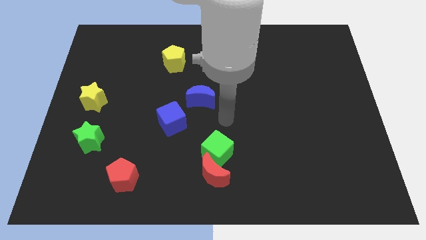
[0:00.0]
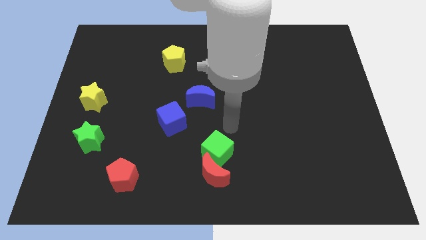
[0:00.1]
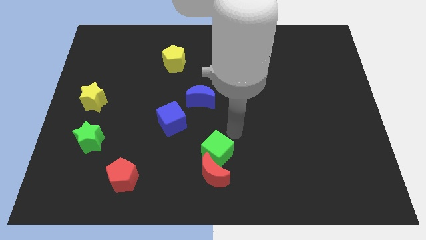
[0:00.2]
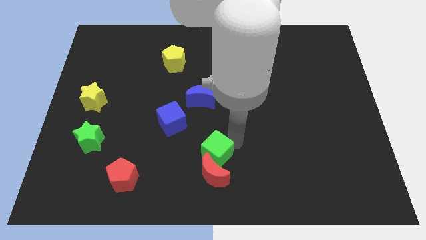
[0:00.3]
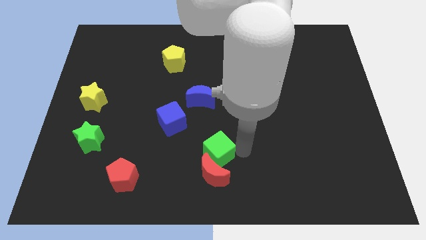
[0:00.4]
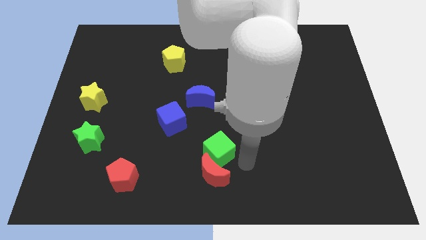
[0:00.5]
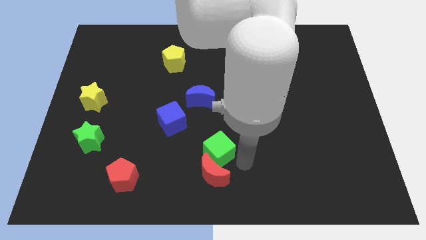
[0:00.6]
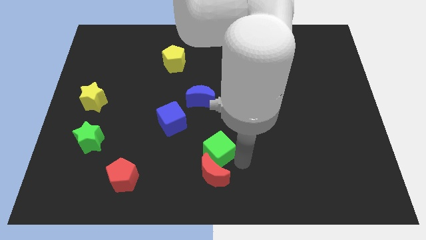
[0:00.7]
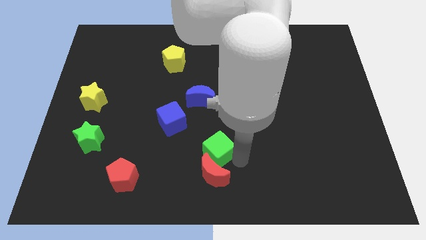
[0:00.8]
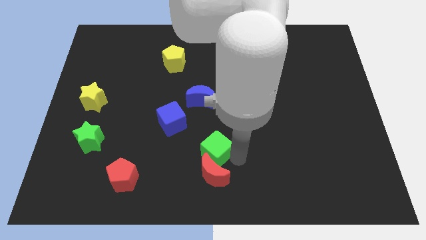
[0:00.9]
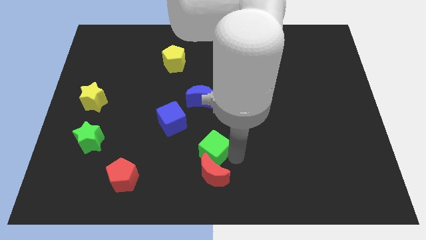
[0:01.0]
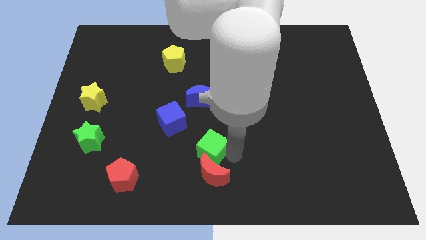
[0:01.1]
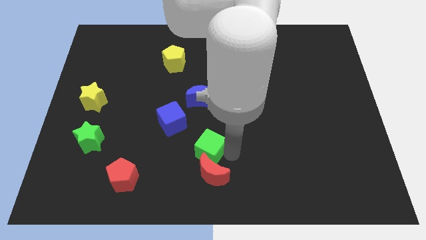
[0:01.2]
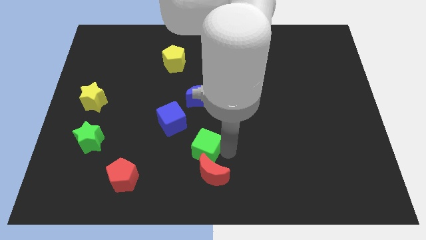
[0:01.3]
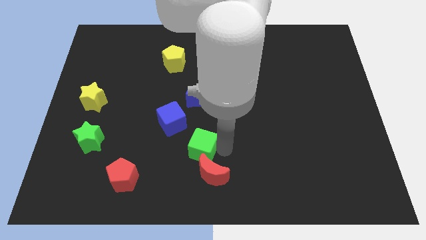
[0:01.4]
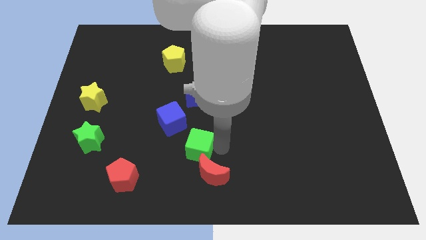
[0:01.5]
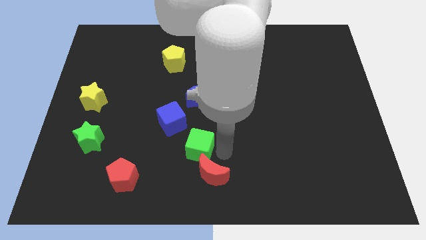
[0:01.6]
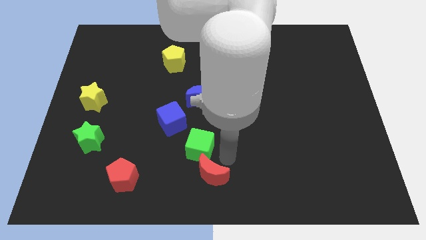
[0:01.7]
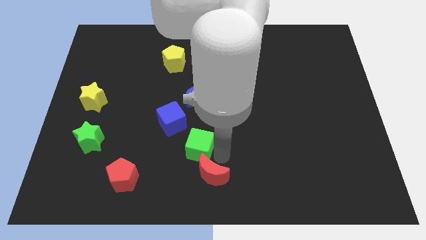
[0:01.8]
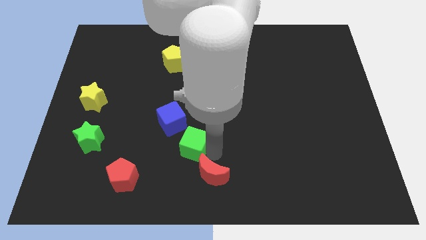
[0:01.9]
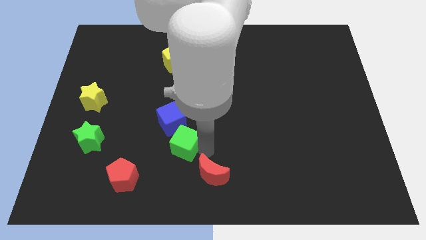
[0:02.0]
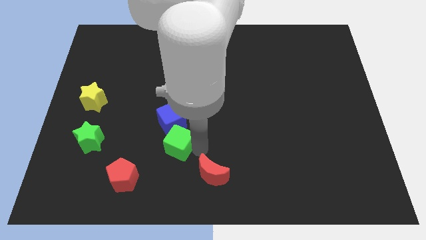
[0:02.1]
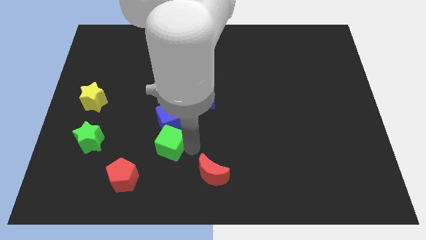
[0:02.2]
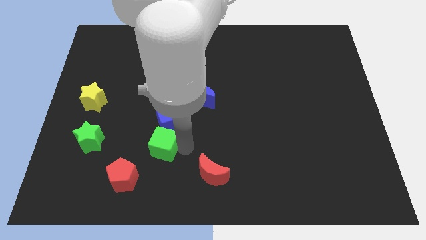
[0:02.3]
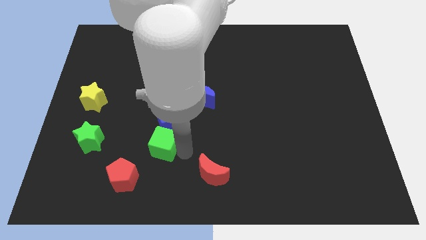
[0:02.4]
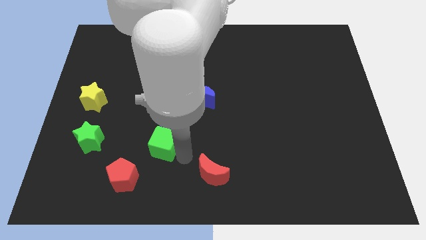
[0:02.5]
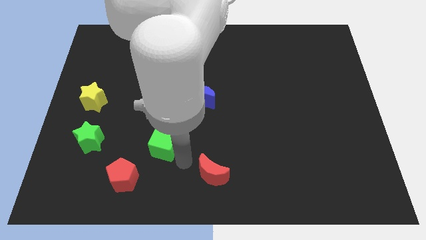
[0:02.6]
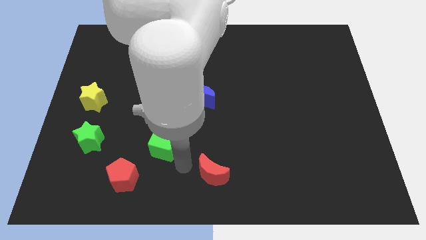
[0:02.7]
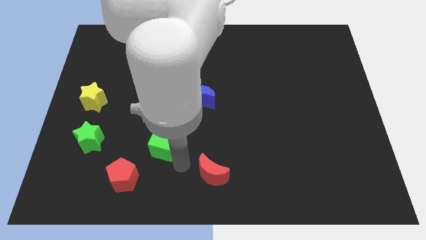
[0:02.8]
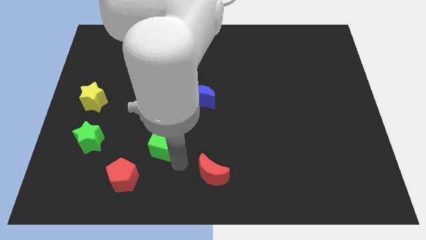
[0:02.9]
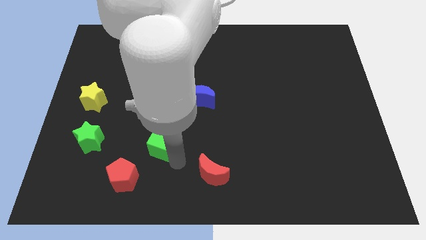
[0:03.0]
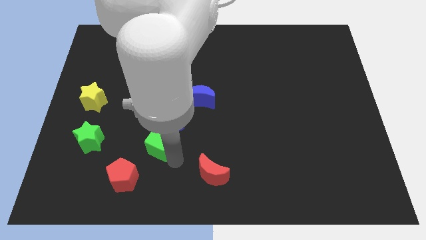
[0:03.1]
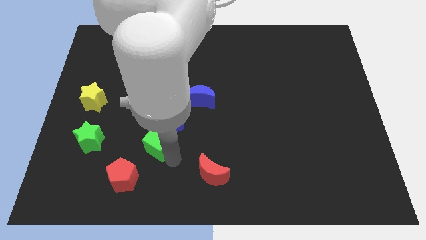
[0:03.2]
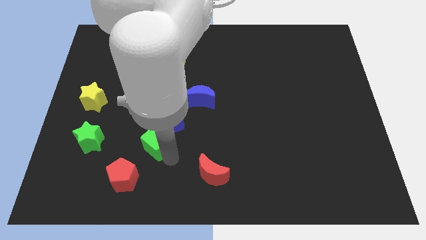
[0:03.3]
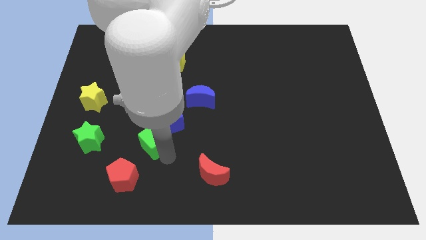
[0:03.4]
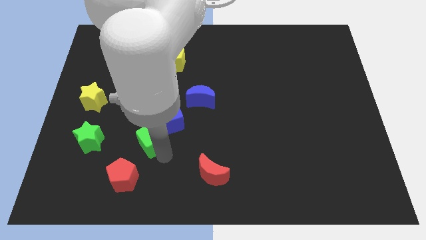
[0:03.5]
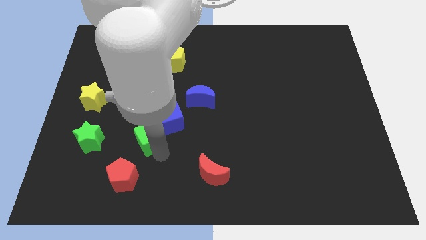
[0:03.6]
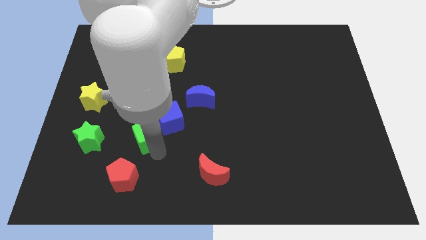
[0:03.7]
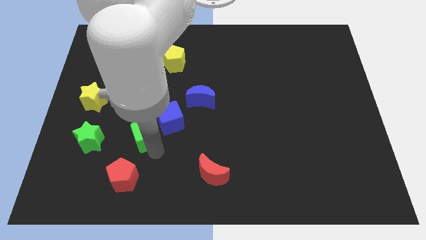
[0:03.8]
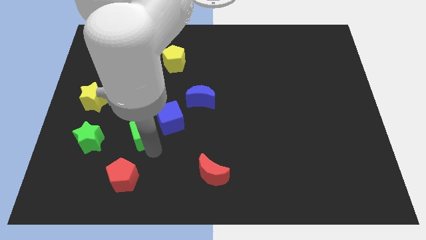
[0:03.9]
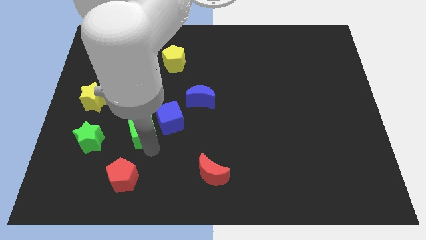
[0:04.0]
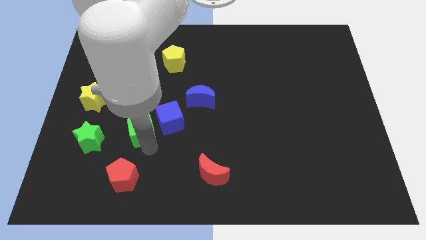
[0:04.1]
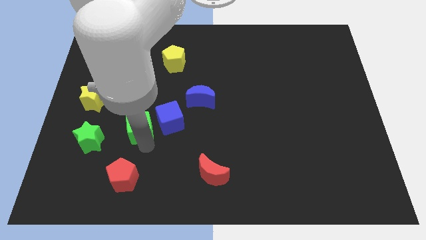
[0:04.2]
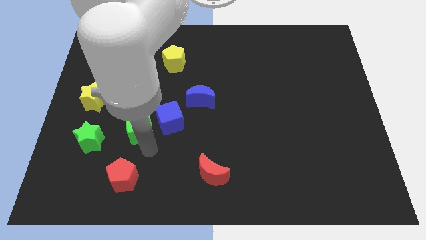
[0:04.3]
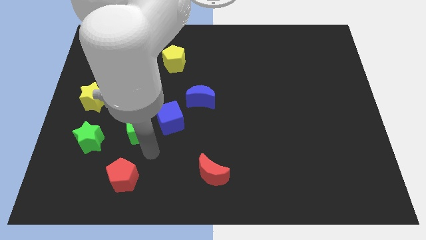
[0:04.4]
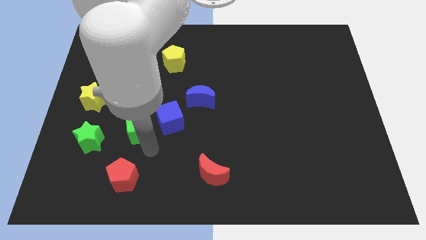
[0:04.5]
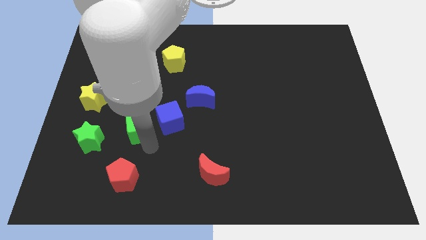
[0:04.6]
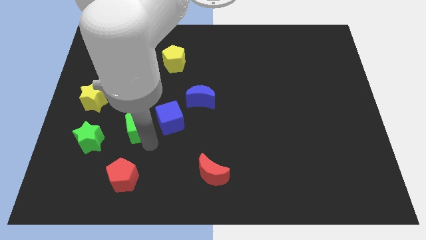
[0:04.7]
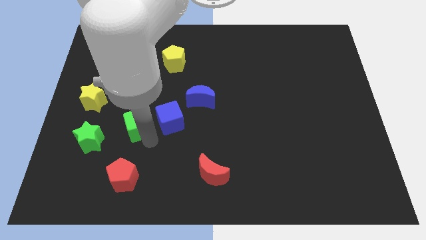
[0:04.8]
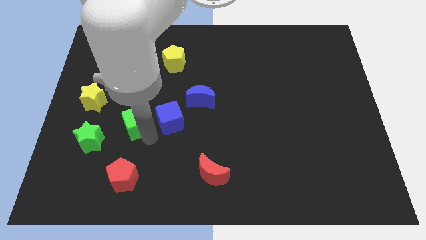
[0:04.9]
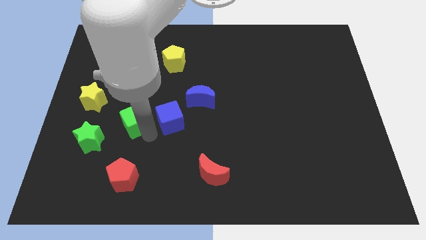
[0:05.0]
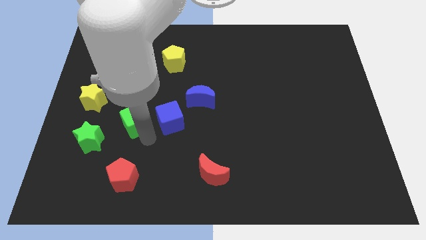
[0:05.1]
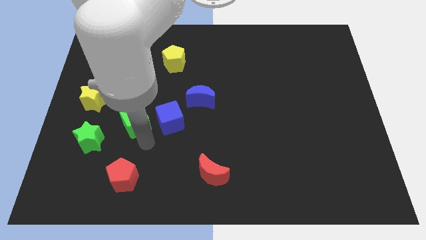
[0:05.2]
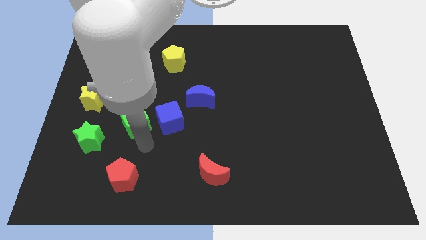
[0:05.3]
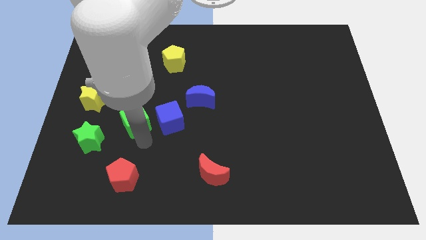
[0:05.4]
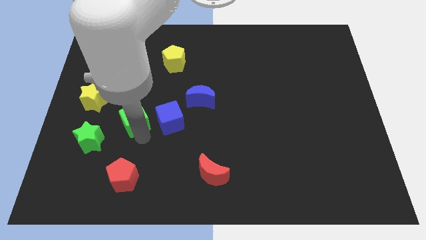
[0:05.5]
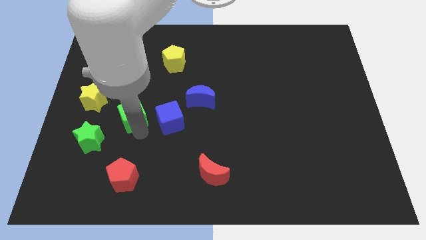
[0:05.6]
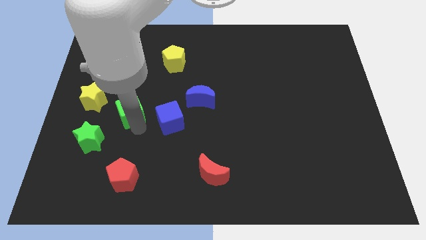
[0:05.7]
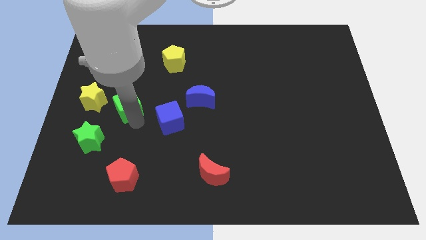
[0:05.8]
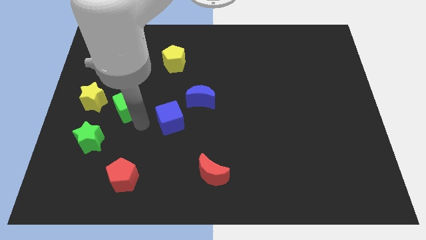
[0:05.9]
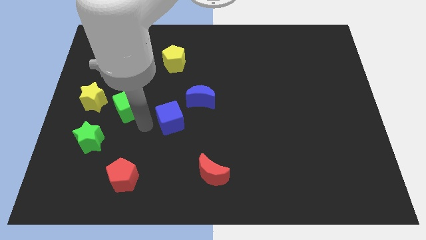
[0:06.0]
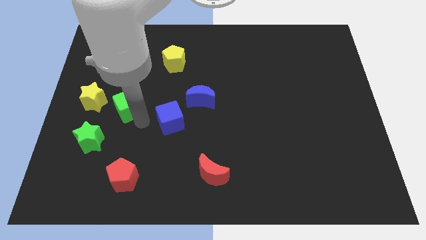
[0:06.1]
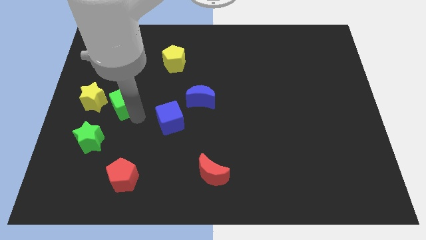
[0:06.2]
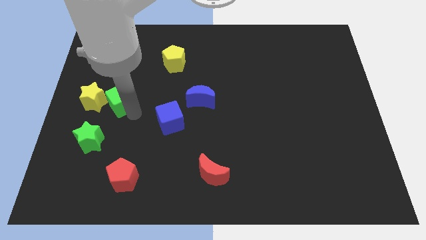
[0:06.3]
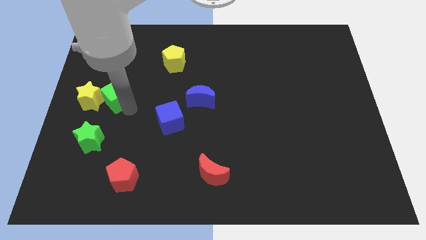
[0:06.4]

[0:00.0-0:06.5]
move the green cube above the green star

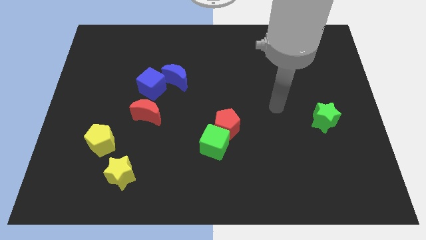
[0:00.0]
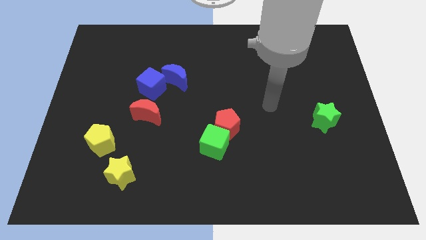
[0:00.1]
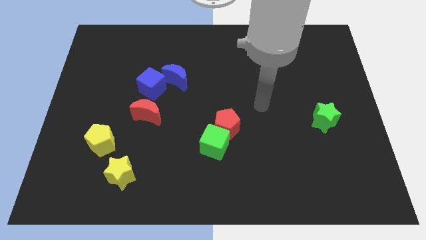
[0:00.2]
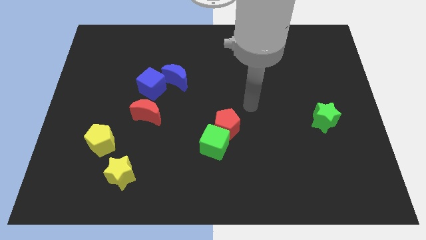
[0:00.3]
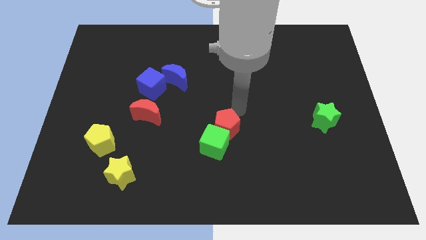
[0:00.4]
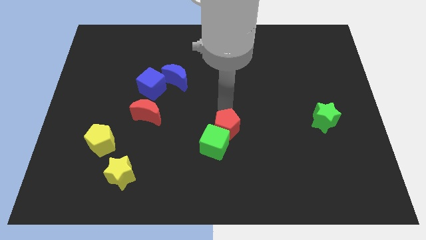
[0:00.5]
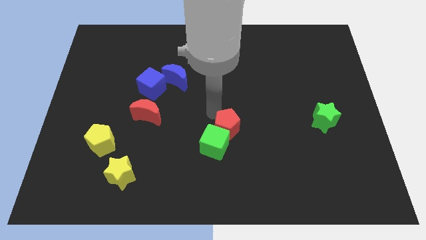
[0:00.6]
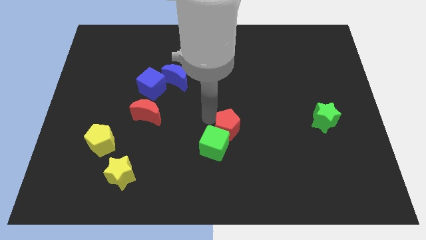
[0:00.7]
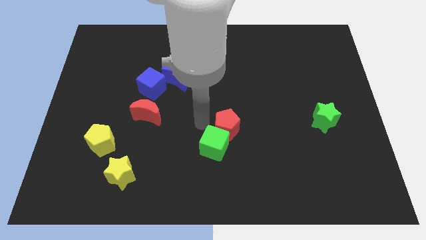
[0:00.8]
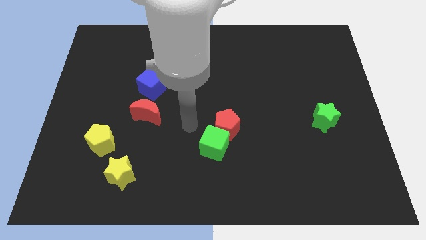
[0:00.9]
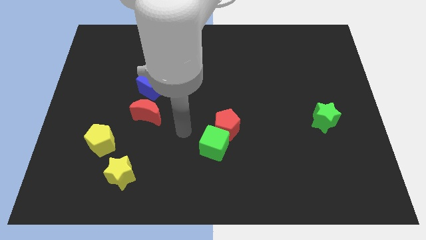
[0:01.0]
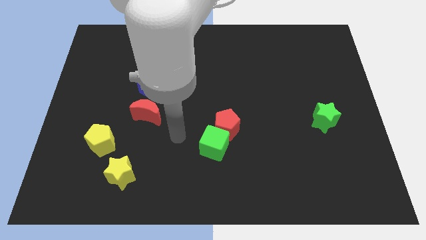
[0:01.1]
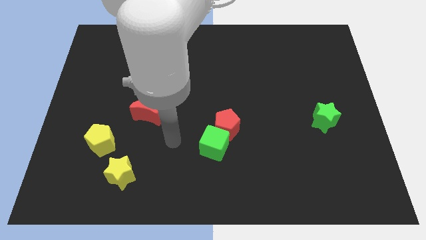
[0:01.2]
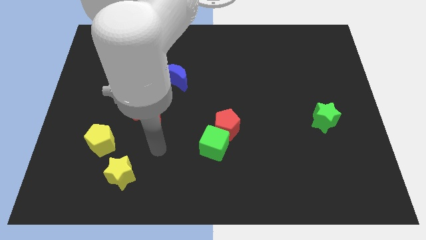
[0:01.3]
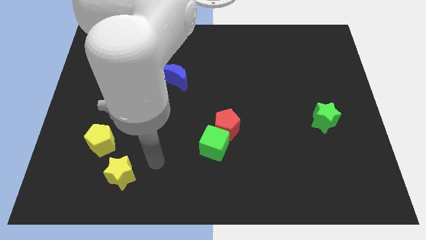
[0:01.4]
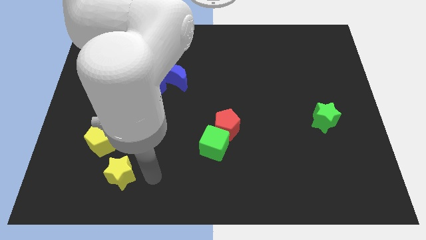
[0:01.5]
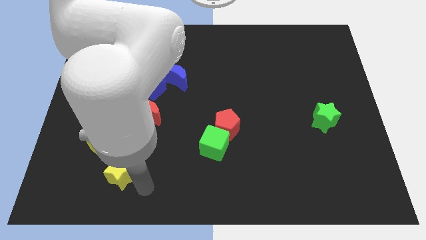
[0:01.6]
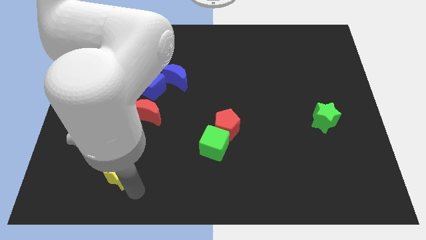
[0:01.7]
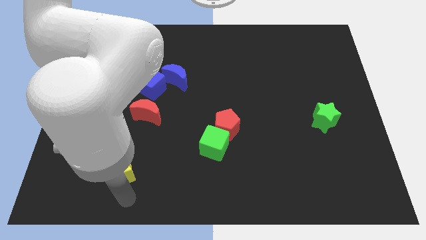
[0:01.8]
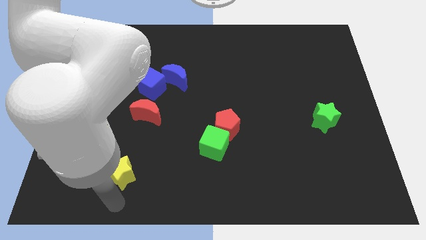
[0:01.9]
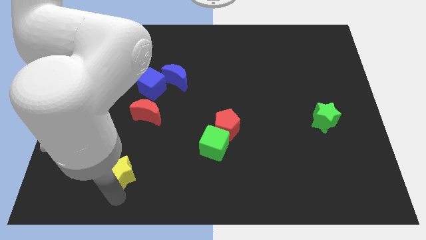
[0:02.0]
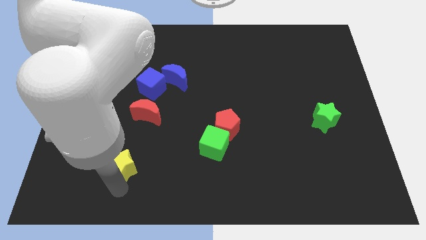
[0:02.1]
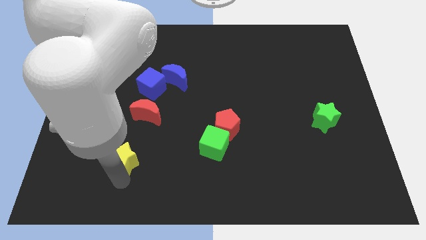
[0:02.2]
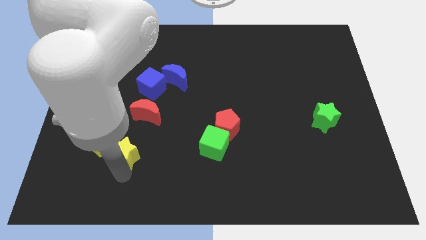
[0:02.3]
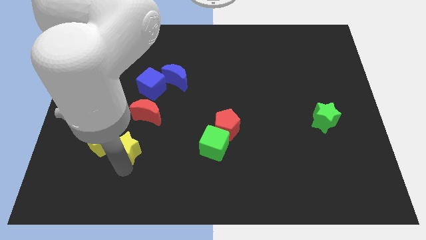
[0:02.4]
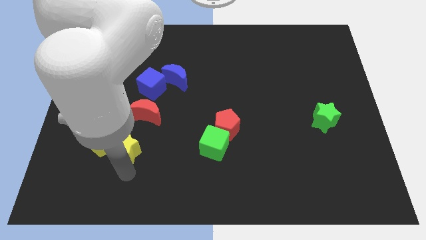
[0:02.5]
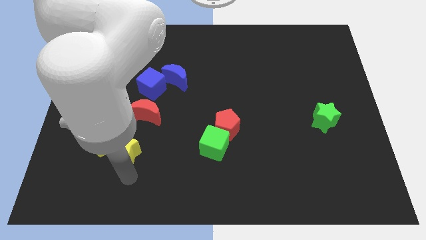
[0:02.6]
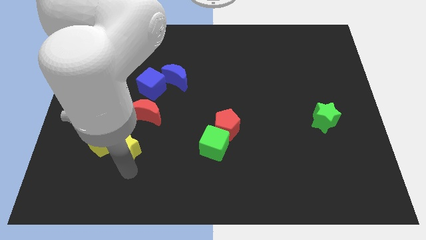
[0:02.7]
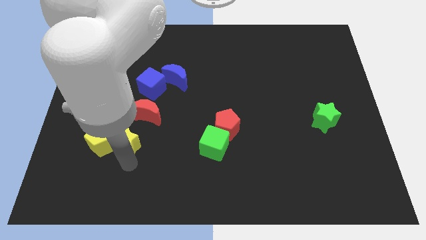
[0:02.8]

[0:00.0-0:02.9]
move the yellow star to the top right of the yellow pentagon
